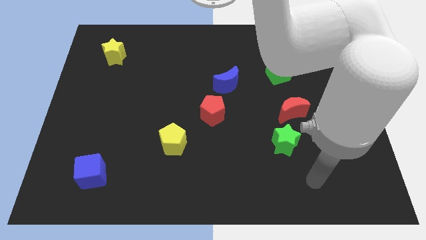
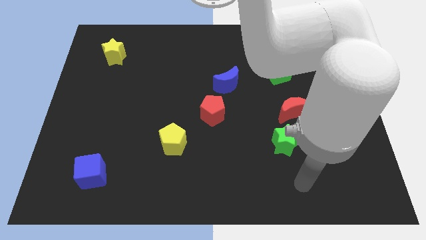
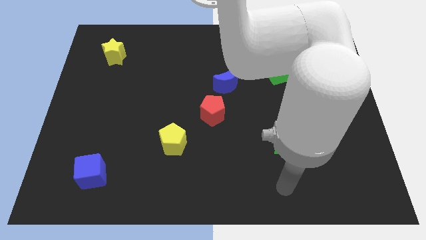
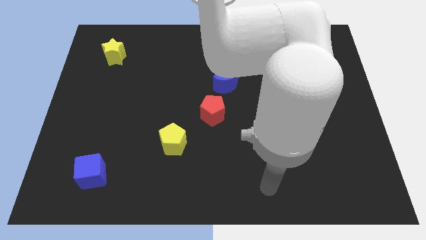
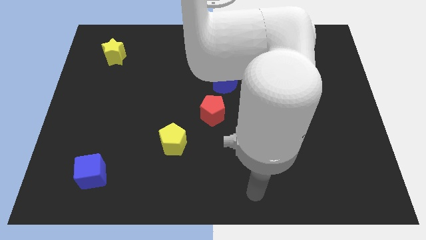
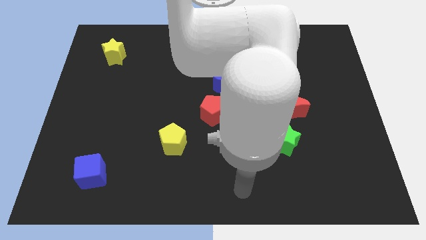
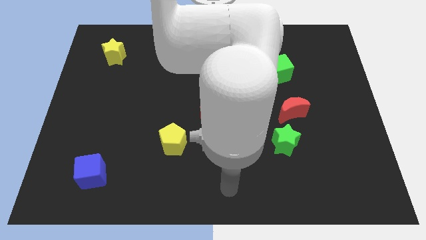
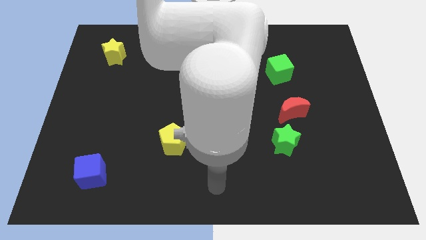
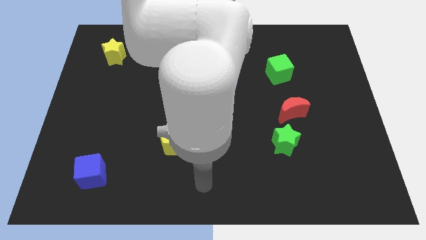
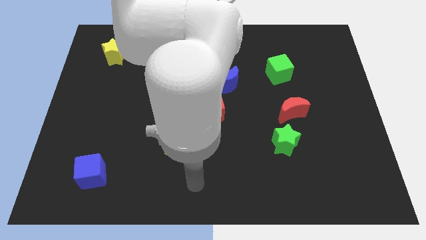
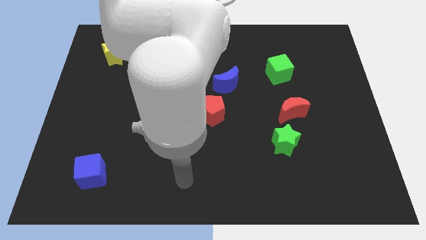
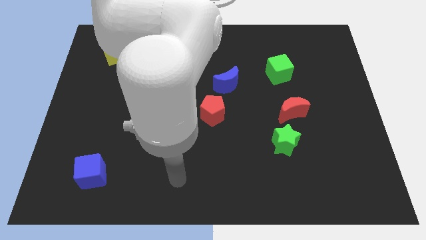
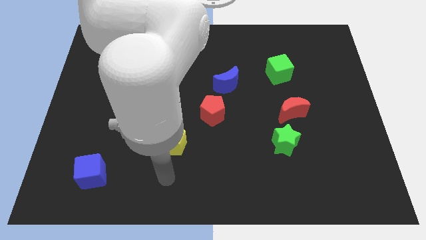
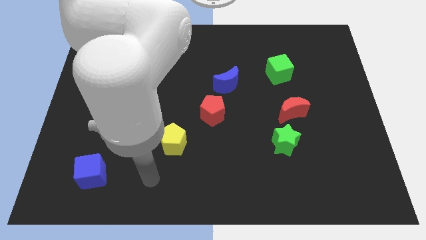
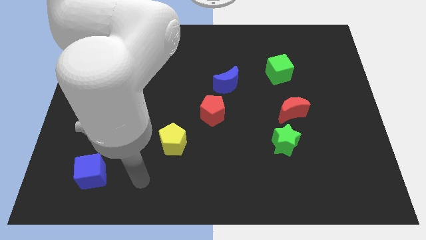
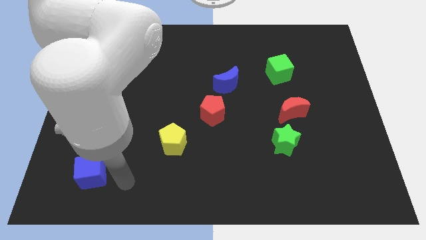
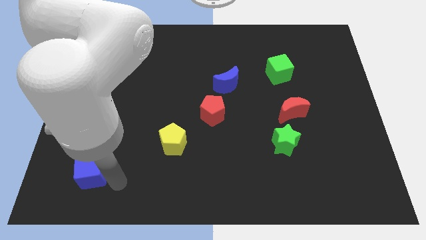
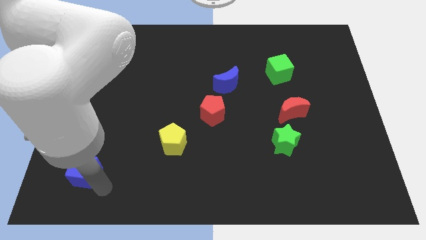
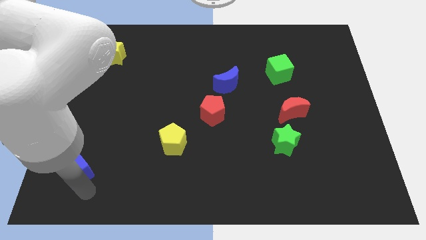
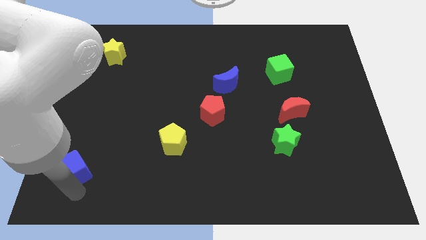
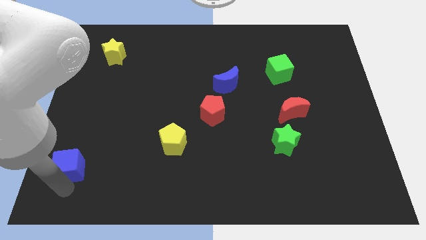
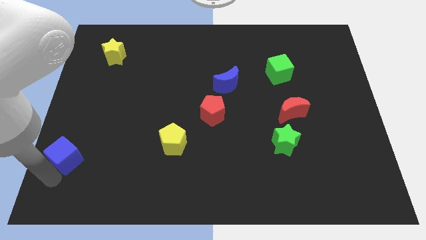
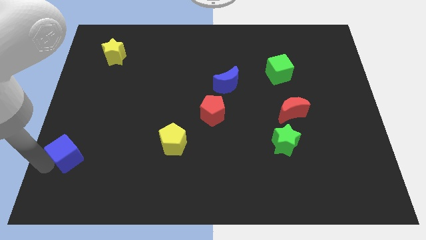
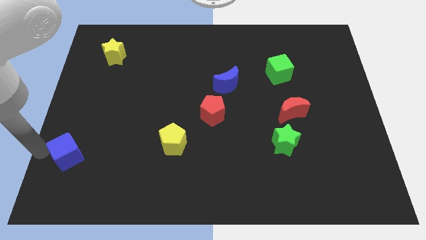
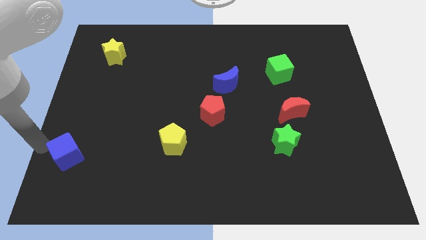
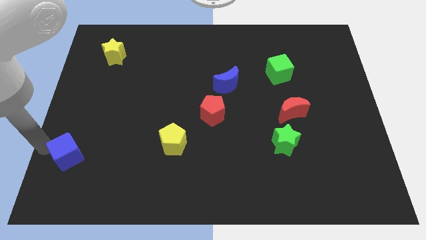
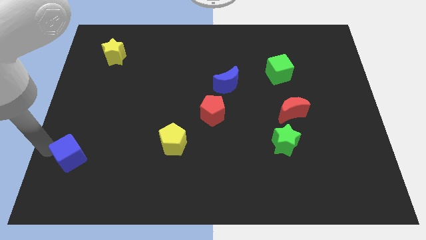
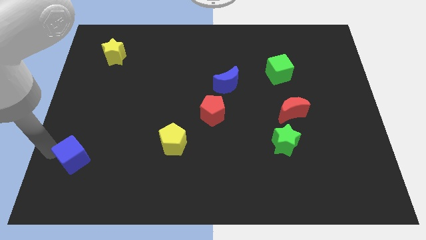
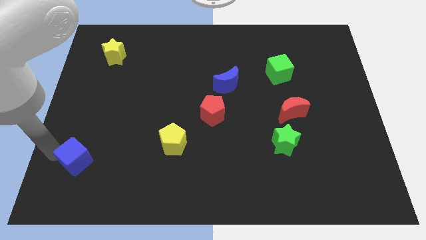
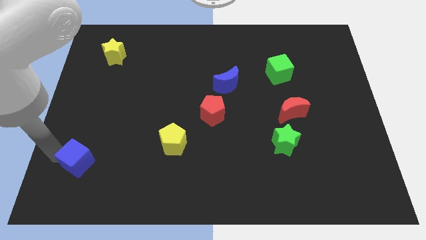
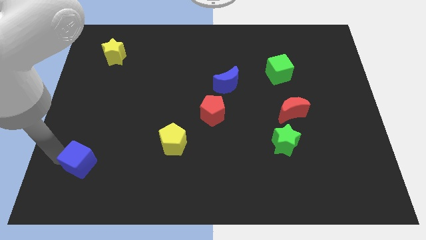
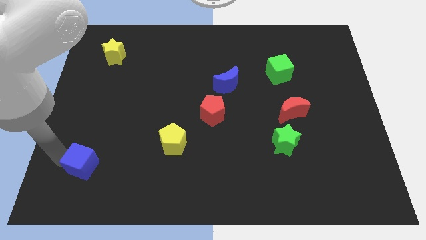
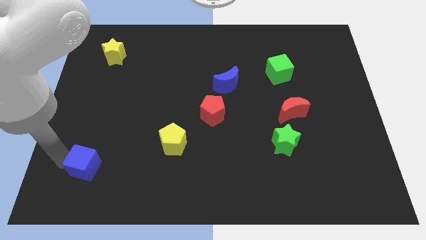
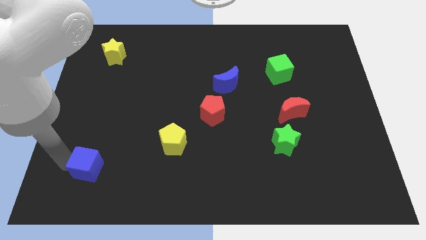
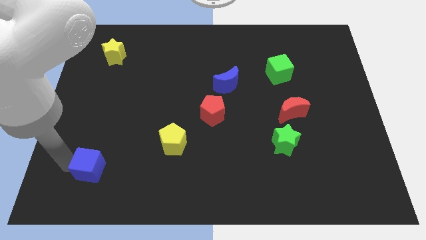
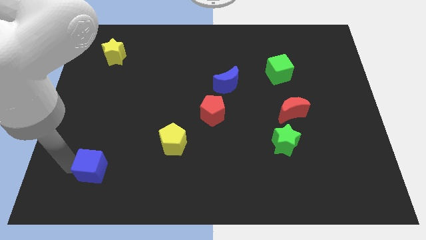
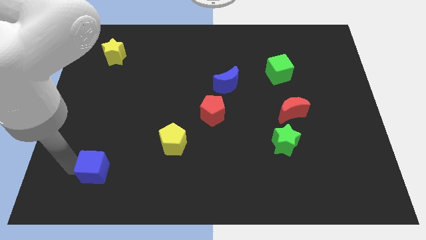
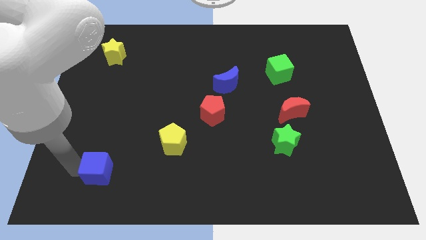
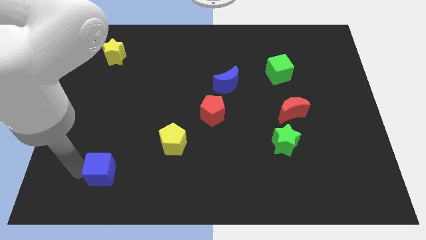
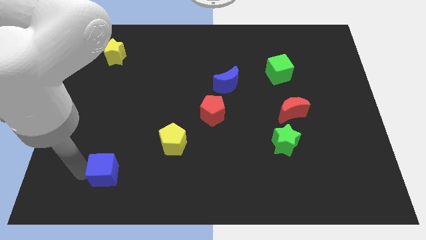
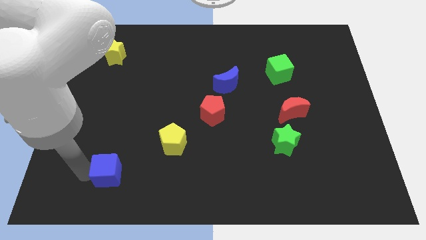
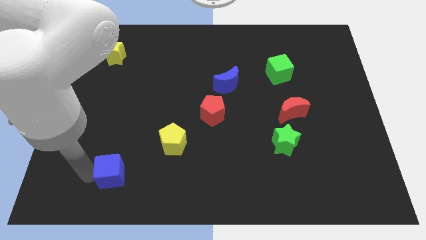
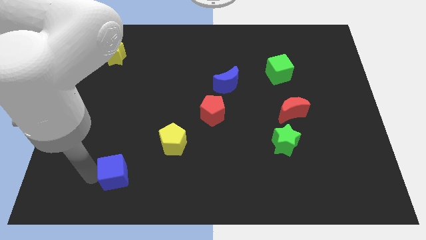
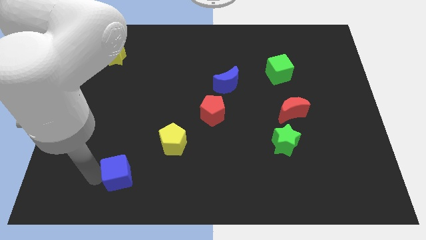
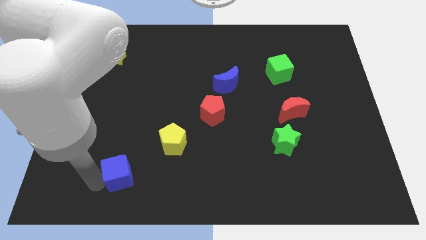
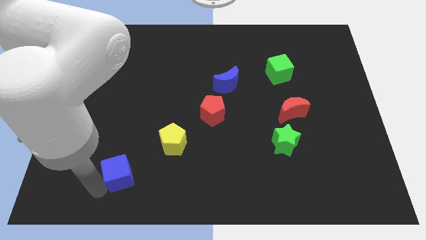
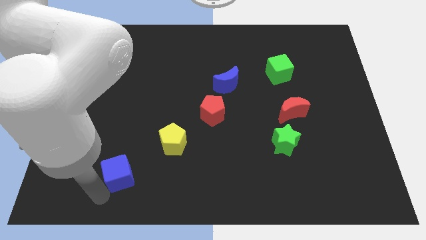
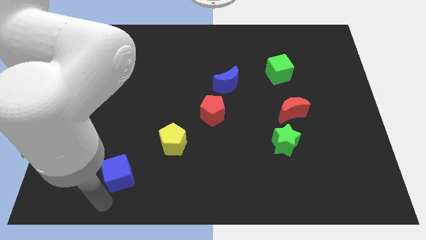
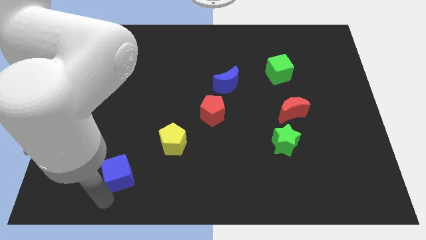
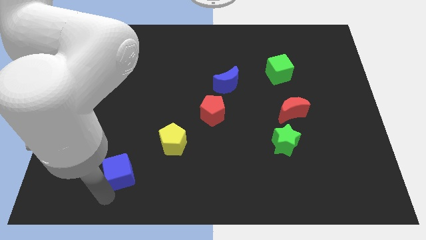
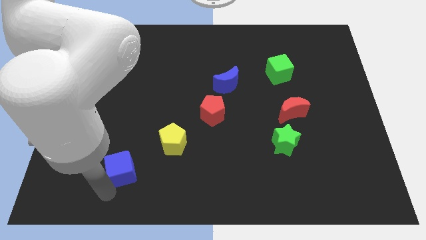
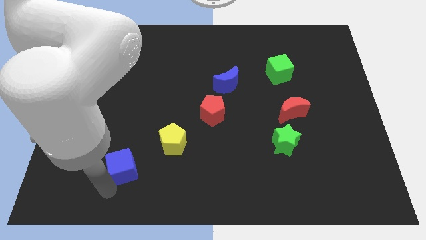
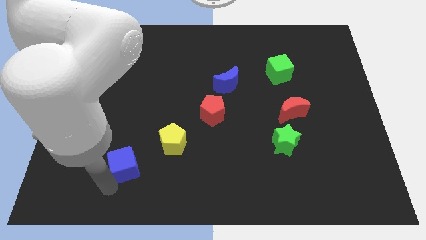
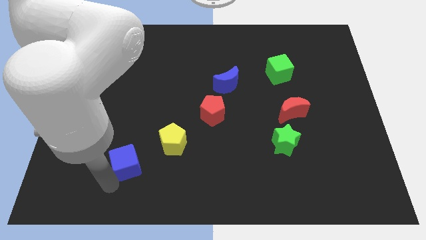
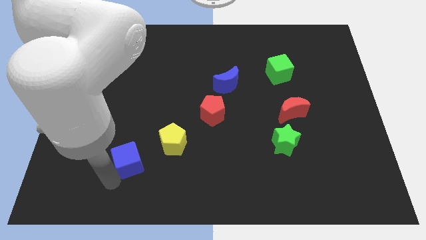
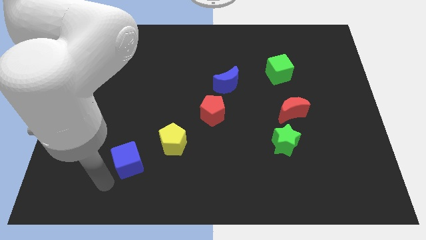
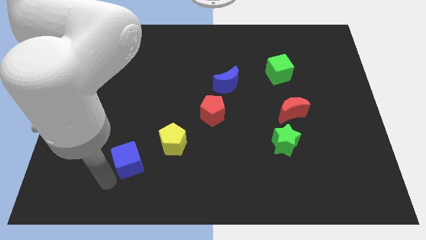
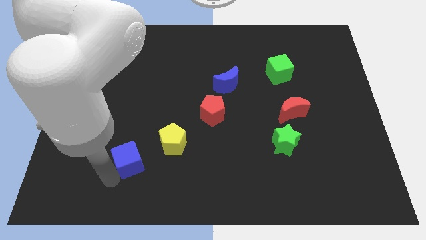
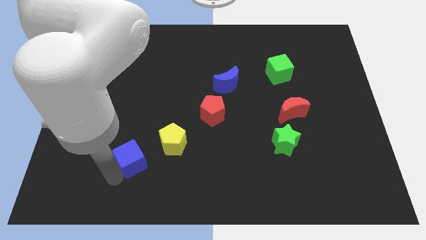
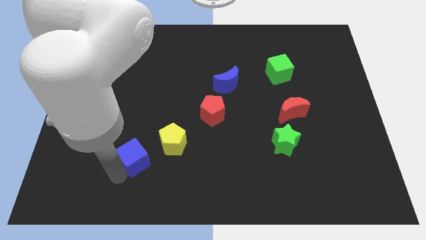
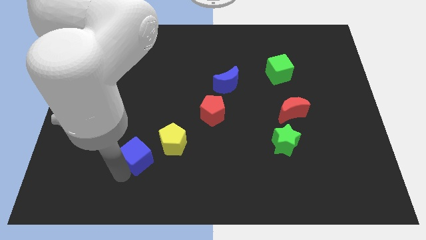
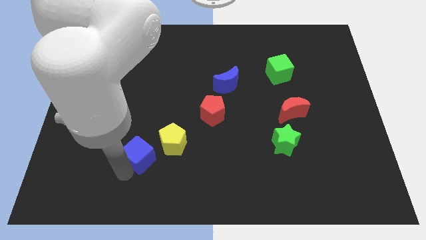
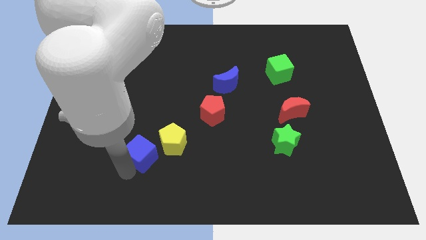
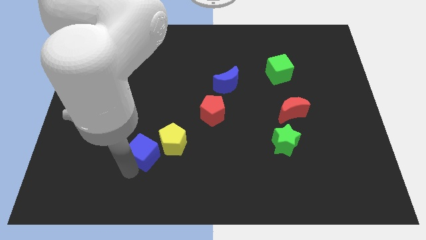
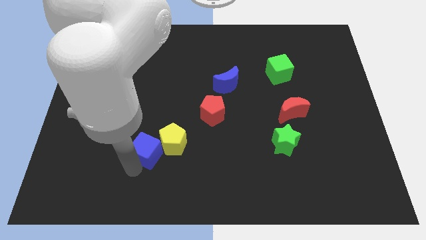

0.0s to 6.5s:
push the blue cube close to the yellow pentagon
